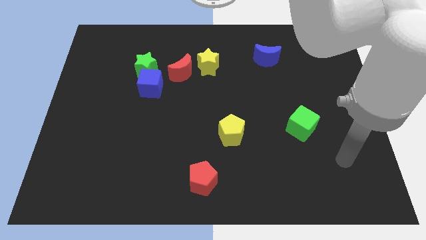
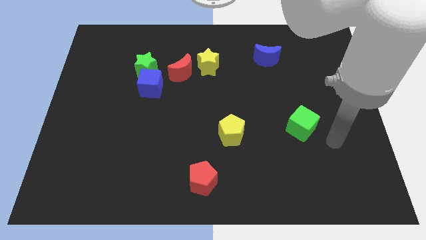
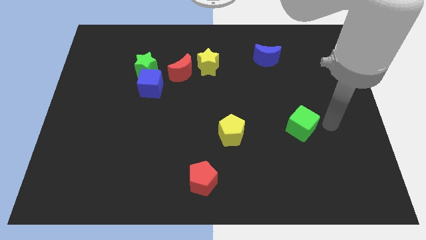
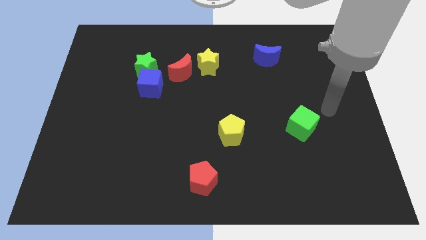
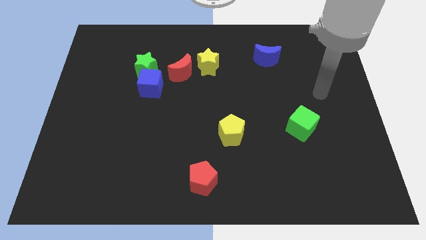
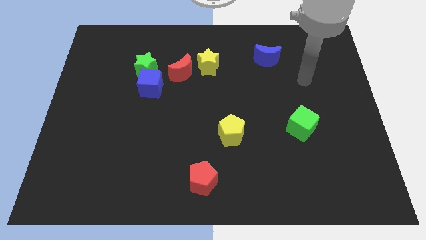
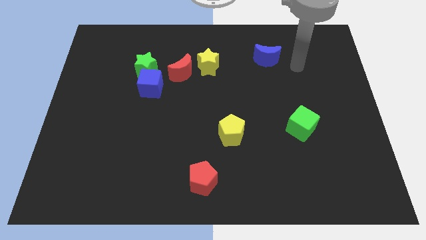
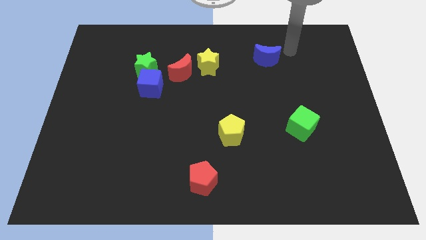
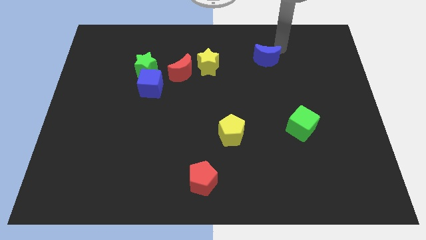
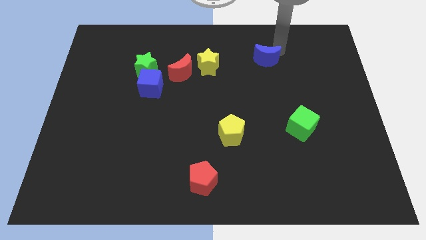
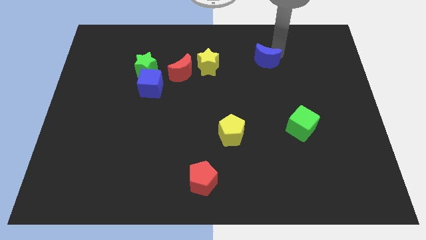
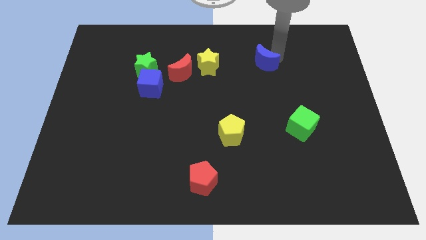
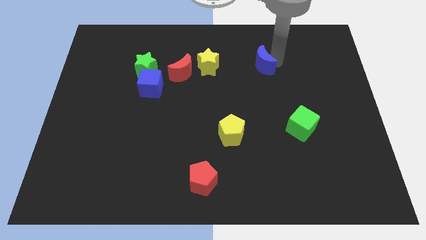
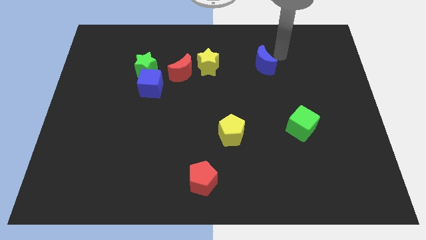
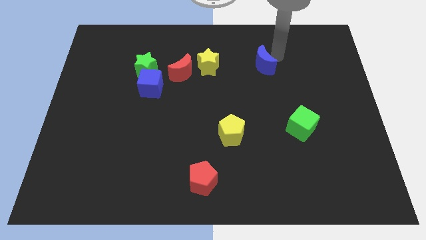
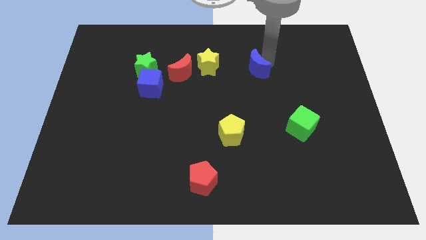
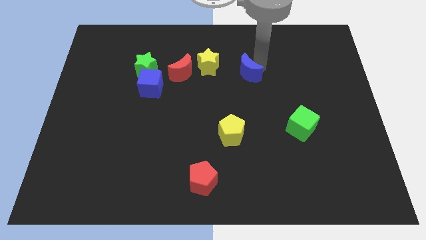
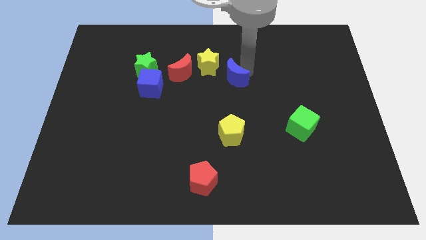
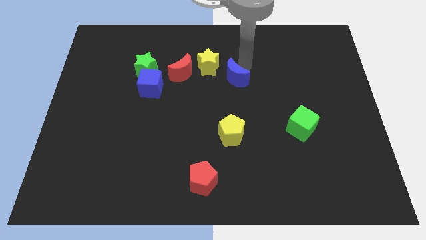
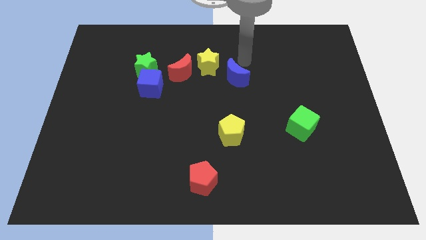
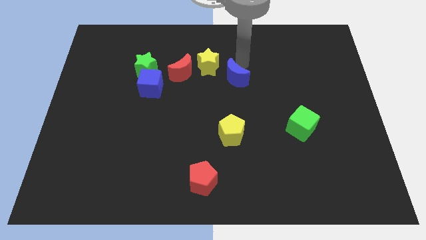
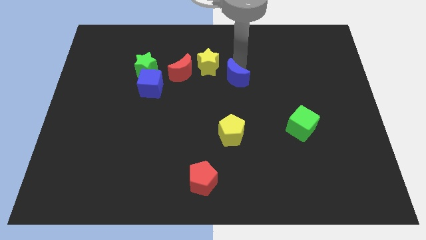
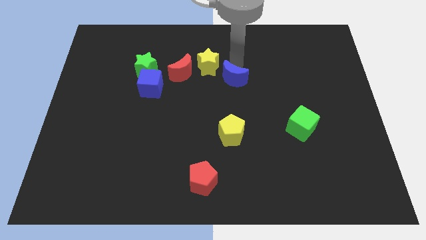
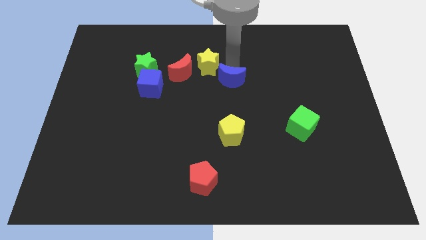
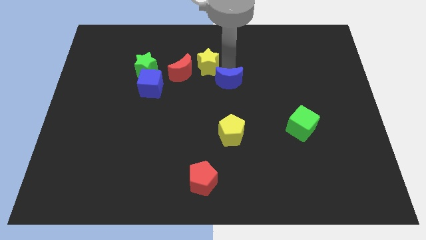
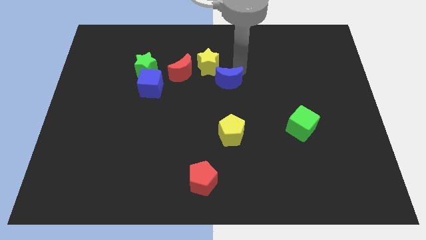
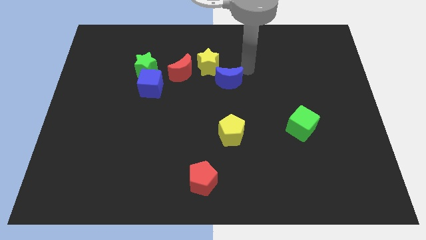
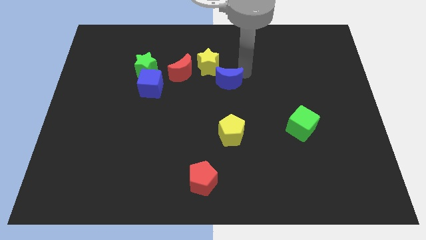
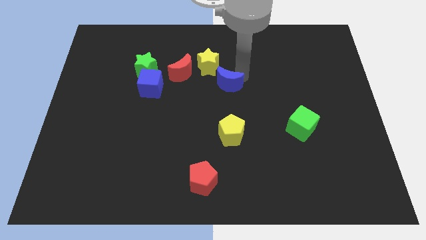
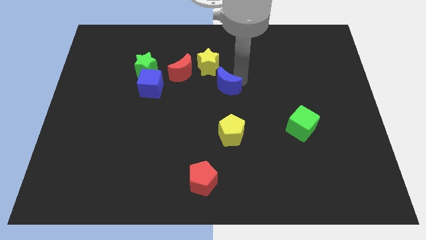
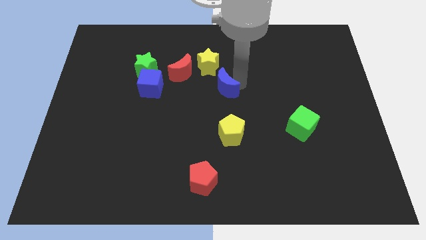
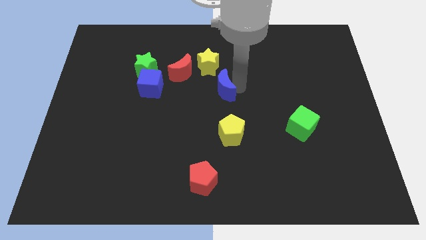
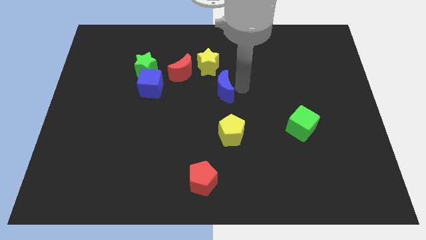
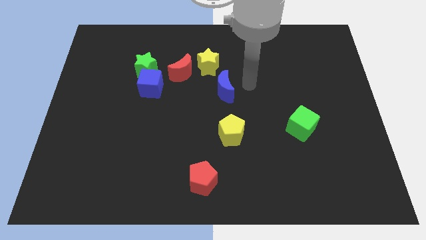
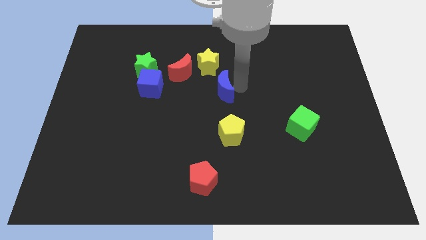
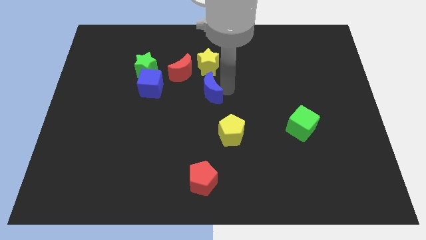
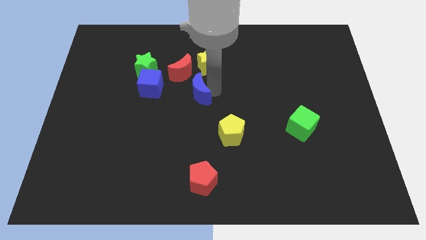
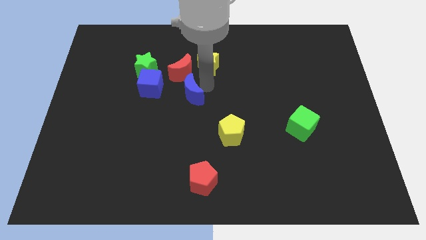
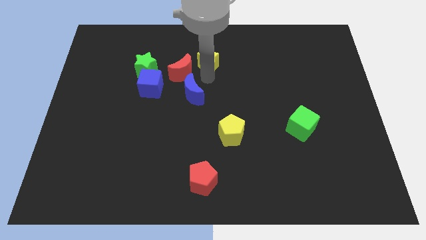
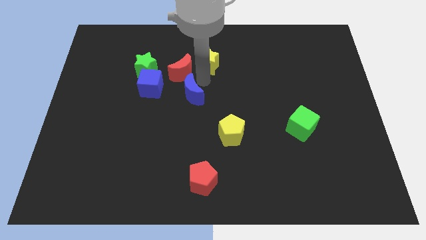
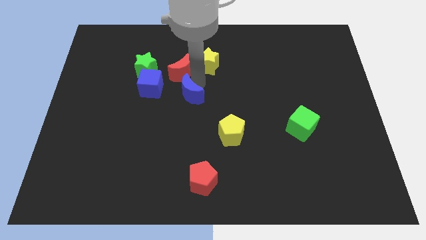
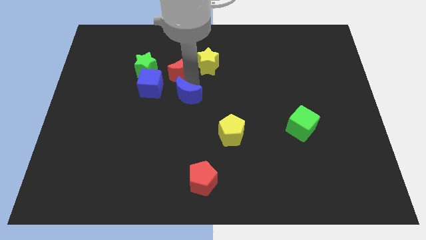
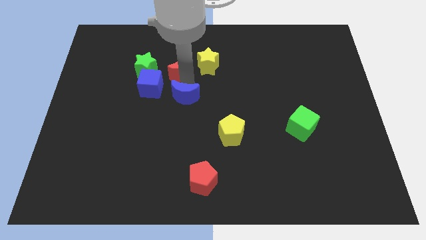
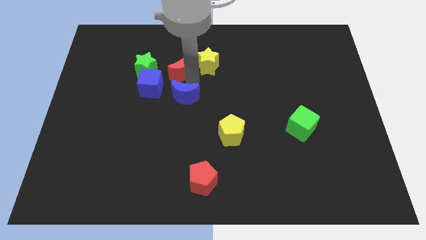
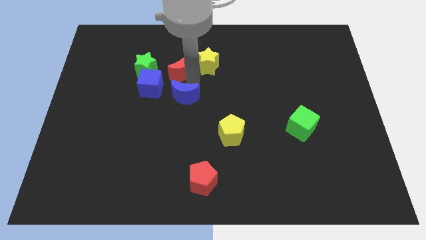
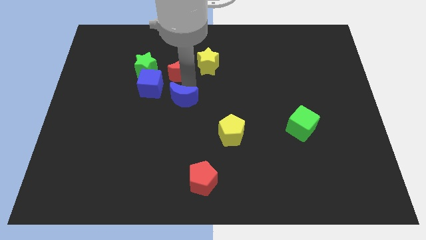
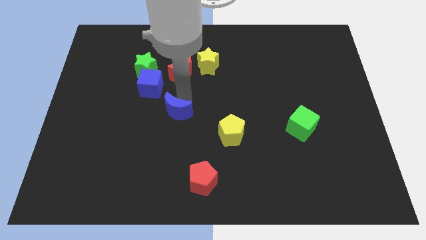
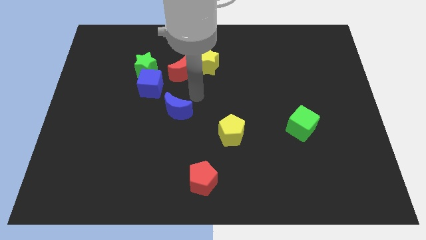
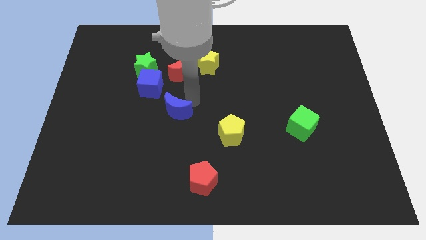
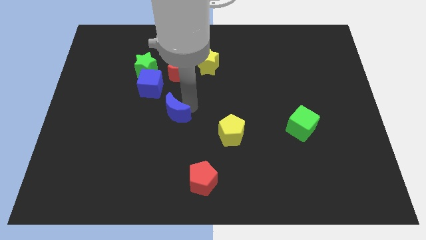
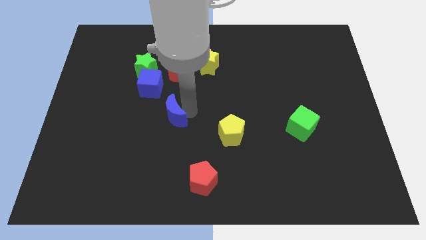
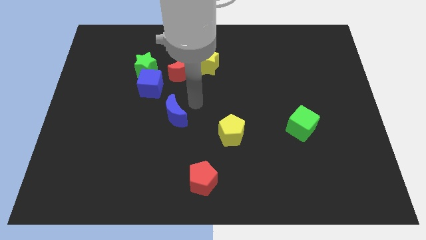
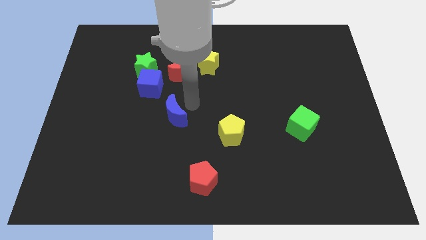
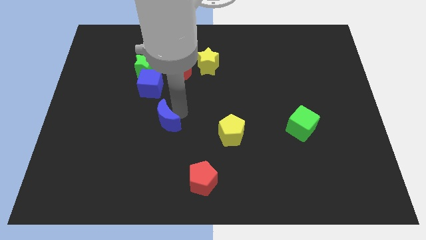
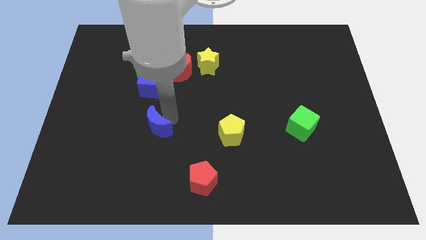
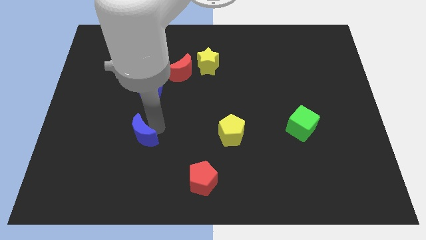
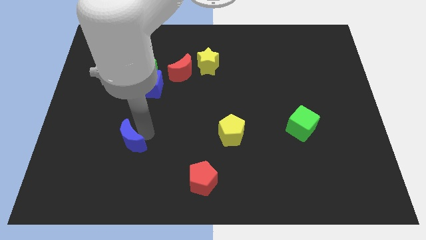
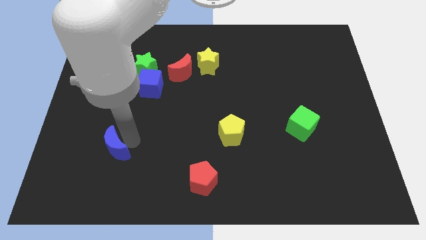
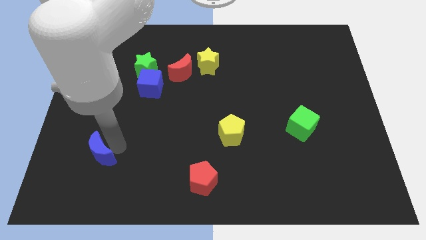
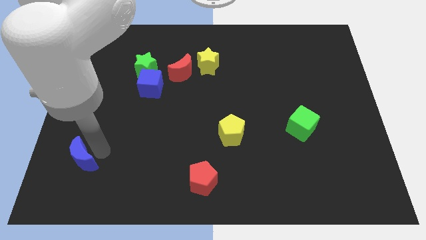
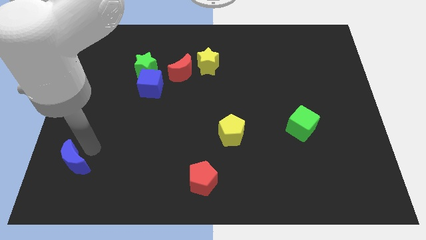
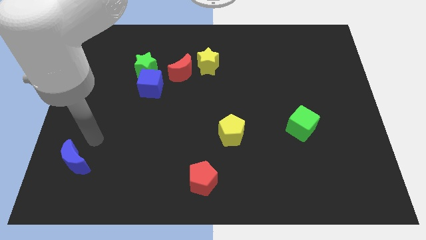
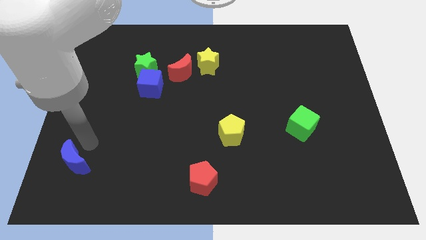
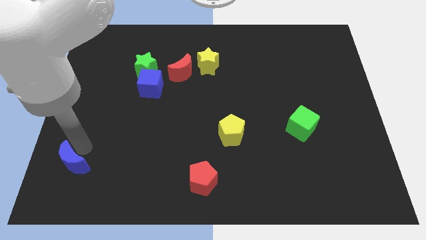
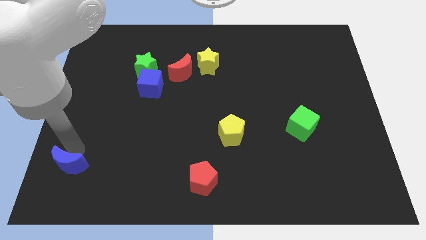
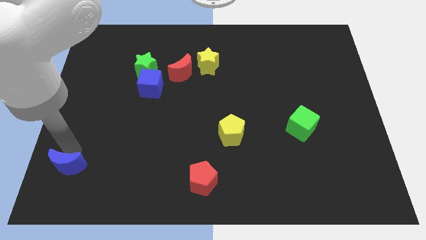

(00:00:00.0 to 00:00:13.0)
move the blue moon to the bottom left
